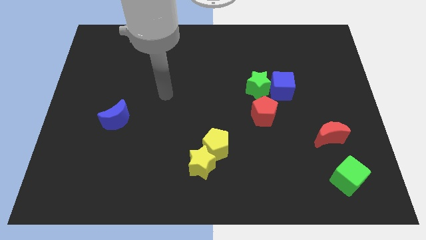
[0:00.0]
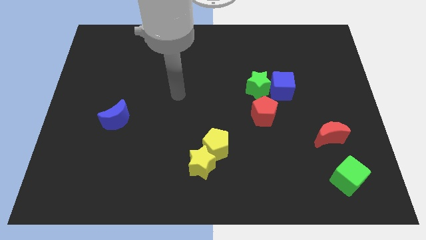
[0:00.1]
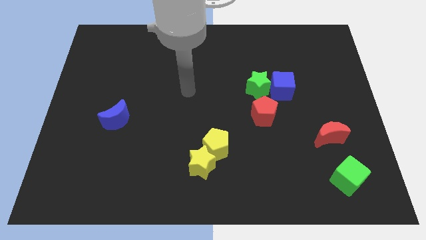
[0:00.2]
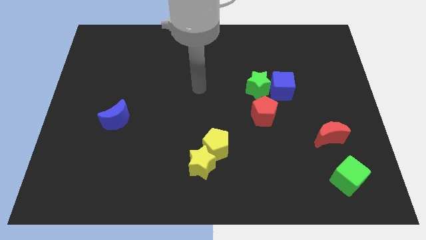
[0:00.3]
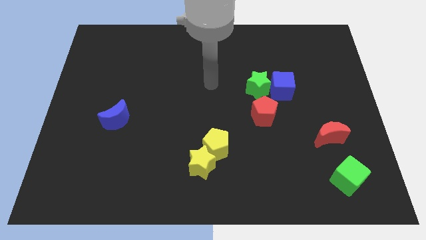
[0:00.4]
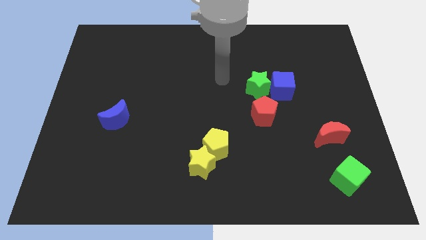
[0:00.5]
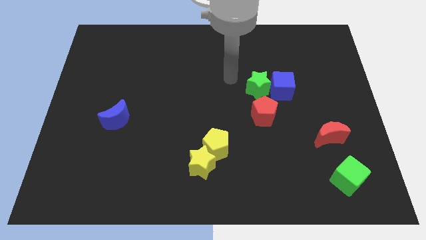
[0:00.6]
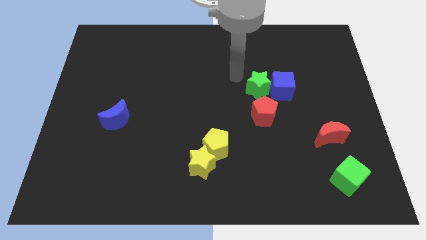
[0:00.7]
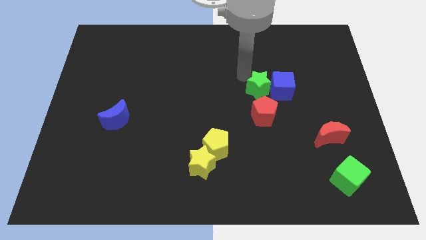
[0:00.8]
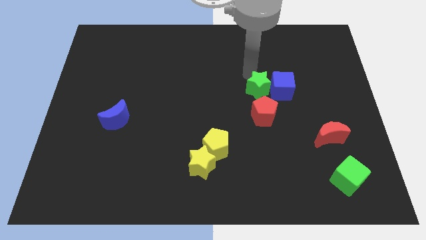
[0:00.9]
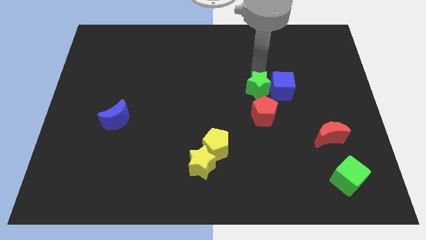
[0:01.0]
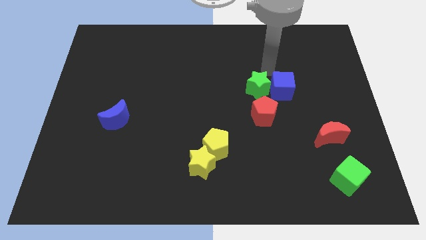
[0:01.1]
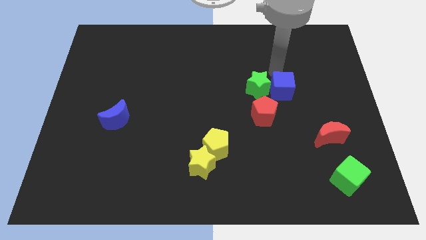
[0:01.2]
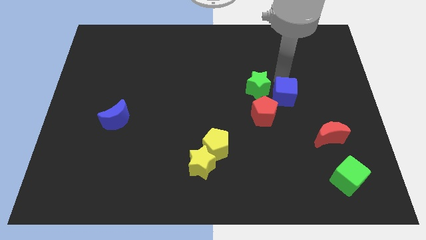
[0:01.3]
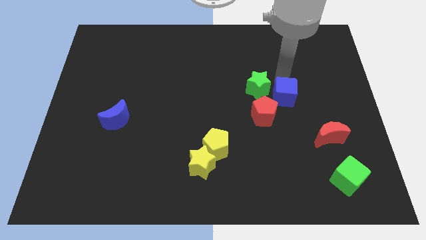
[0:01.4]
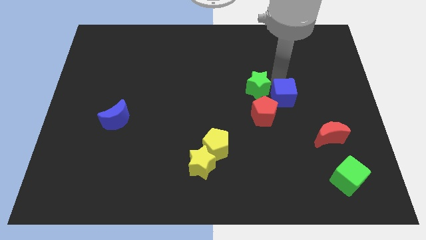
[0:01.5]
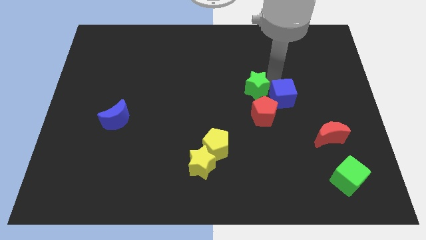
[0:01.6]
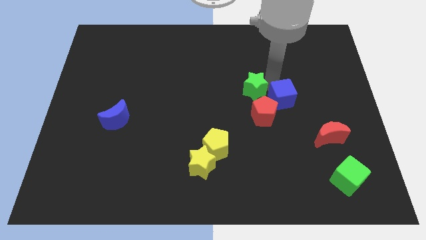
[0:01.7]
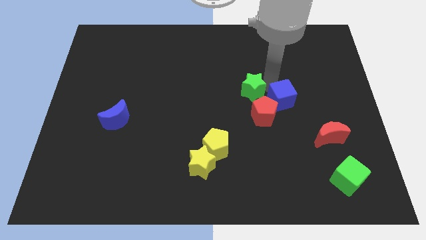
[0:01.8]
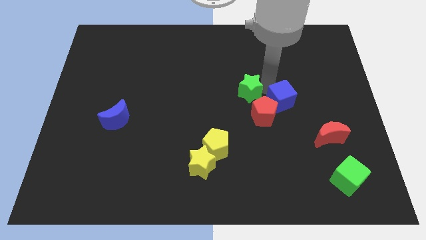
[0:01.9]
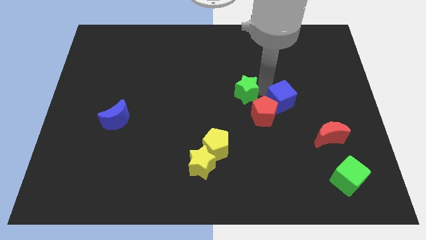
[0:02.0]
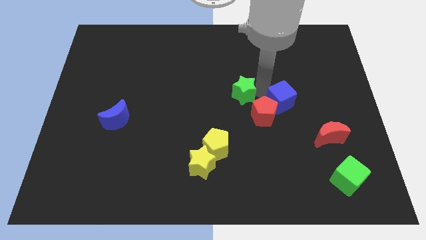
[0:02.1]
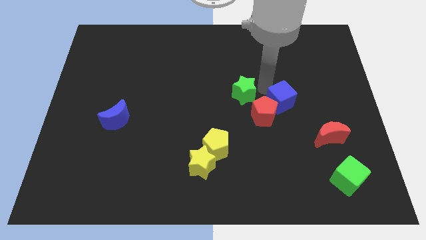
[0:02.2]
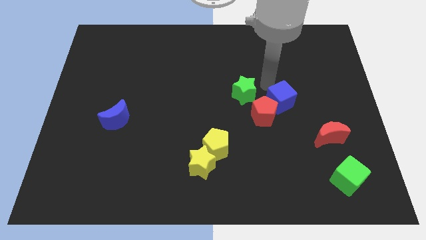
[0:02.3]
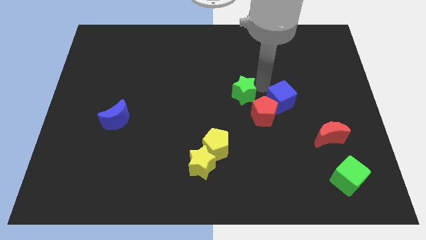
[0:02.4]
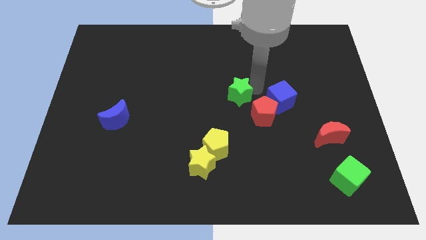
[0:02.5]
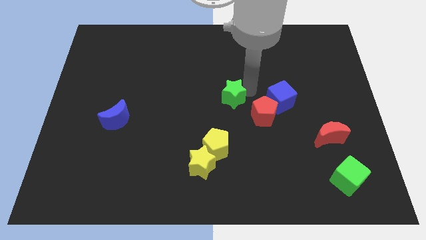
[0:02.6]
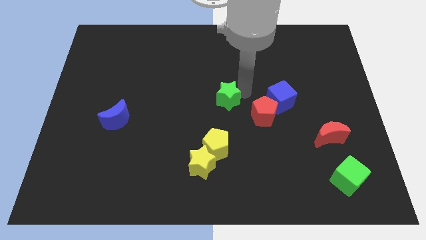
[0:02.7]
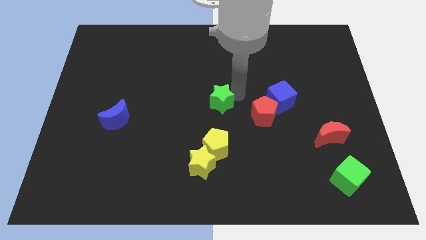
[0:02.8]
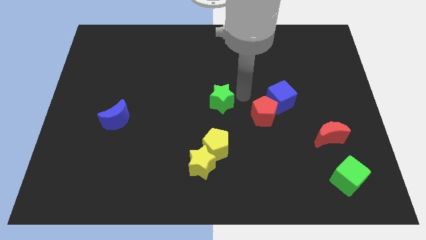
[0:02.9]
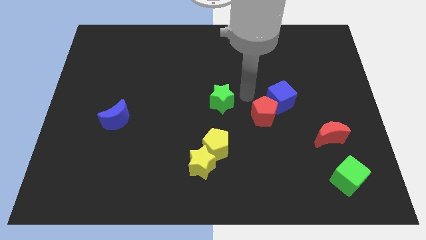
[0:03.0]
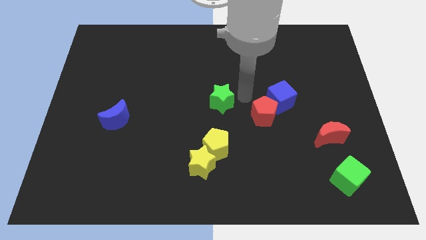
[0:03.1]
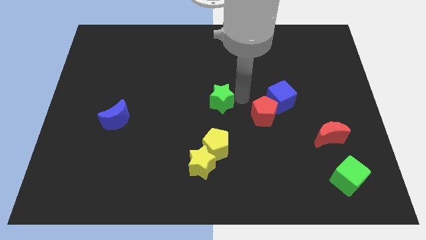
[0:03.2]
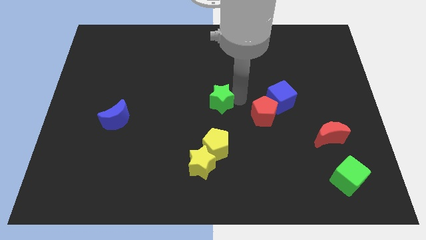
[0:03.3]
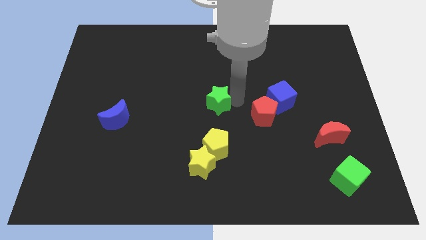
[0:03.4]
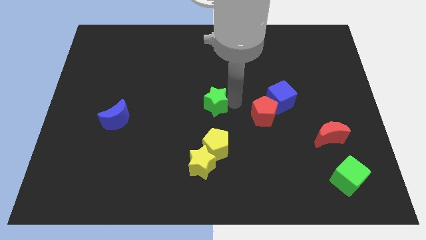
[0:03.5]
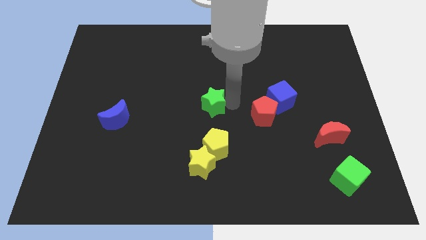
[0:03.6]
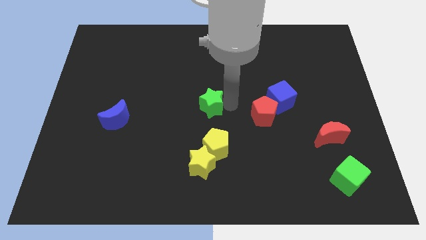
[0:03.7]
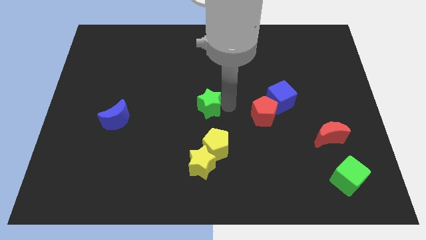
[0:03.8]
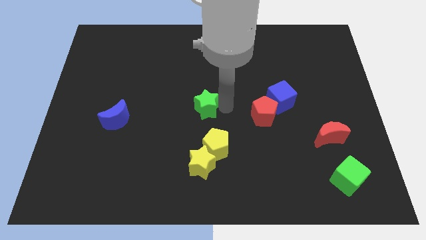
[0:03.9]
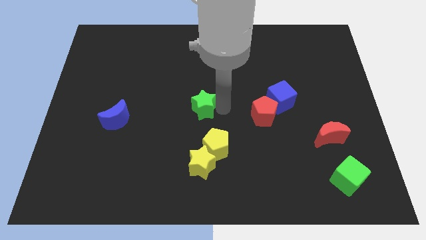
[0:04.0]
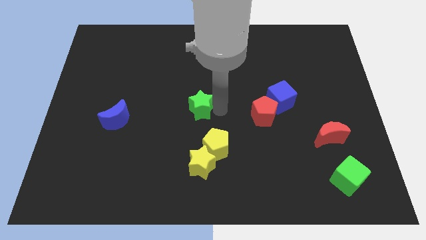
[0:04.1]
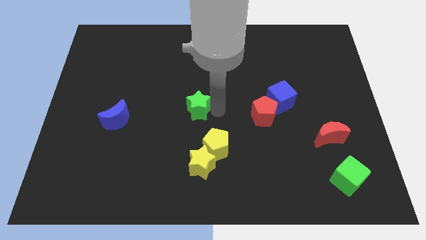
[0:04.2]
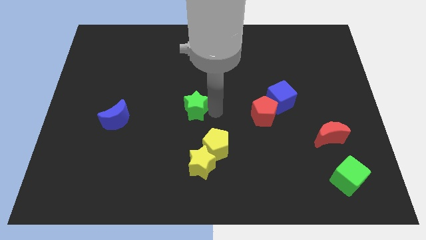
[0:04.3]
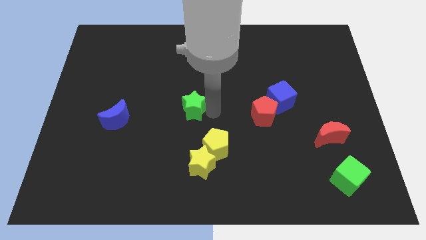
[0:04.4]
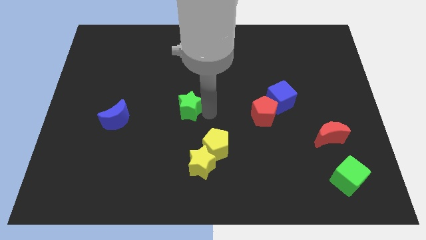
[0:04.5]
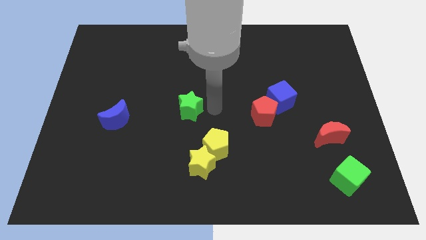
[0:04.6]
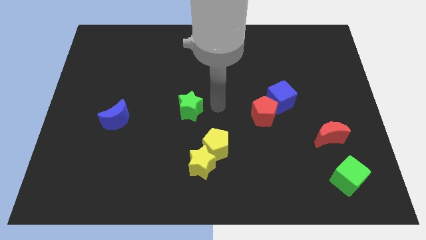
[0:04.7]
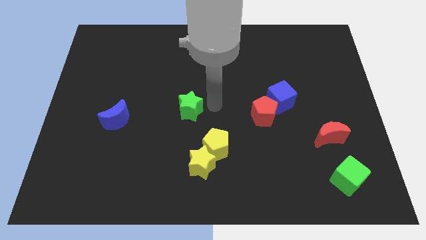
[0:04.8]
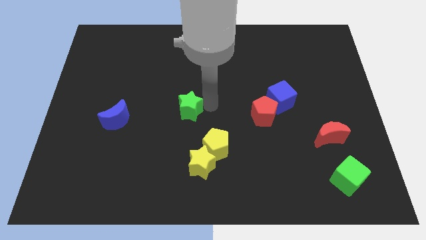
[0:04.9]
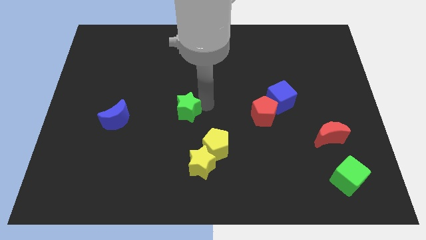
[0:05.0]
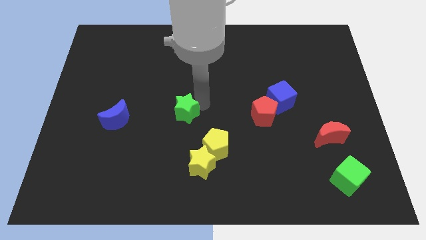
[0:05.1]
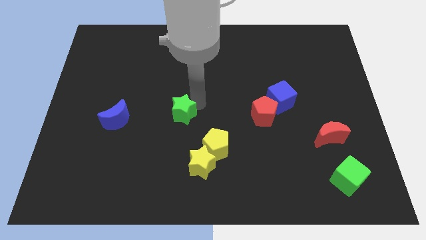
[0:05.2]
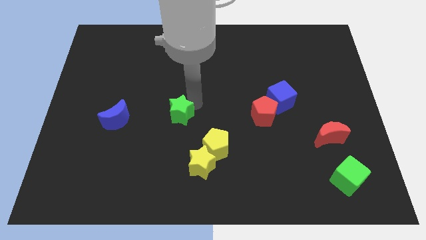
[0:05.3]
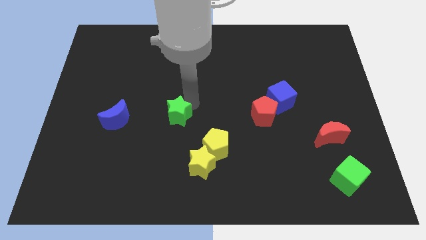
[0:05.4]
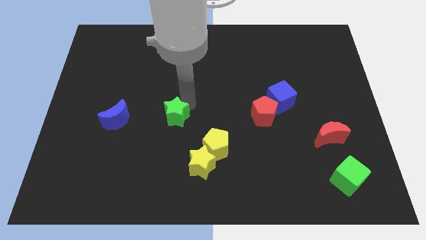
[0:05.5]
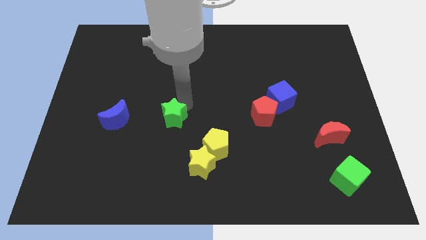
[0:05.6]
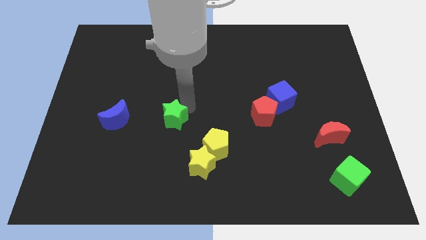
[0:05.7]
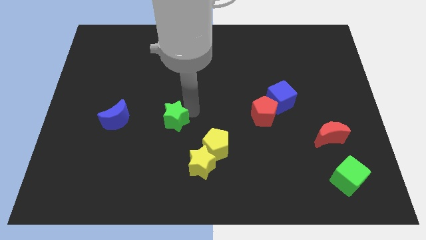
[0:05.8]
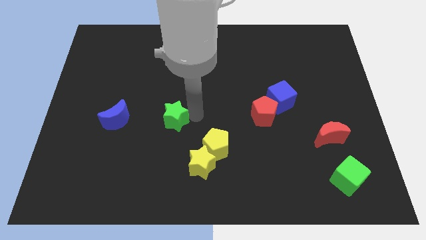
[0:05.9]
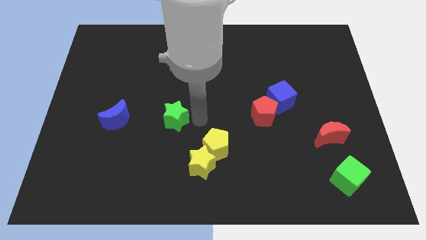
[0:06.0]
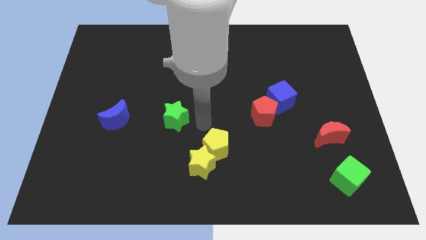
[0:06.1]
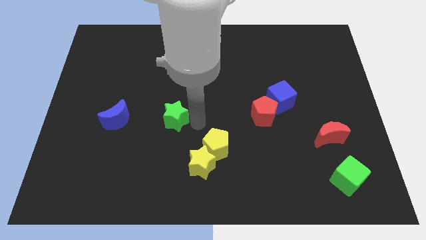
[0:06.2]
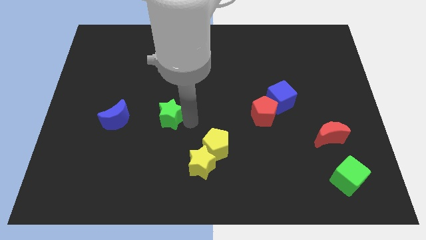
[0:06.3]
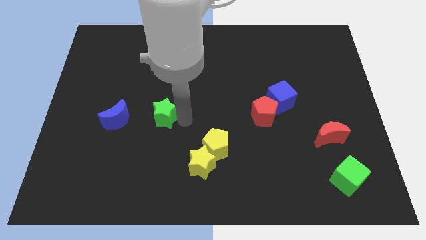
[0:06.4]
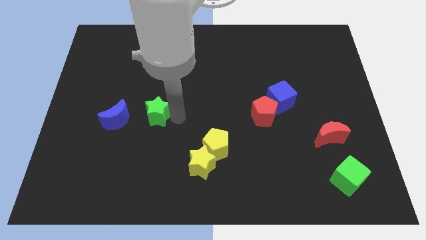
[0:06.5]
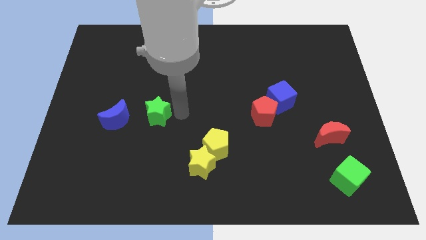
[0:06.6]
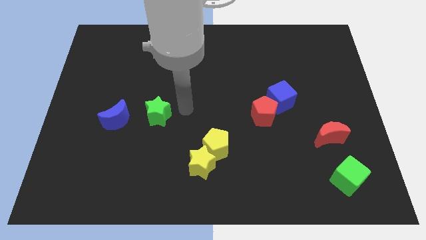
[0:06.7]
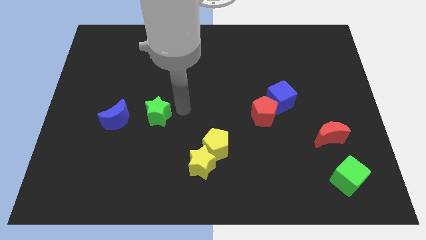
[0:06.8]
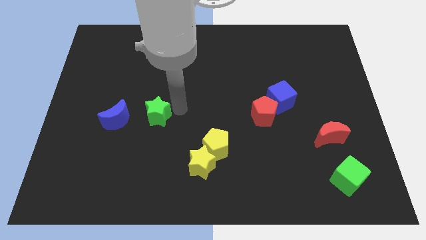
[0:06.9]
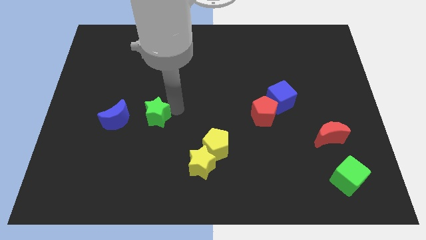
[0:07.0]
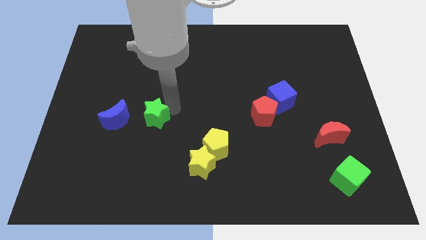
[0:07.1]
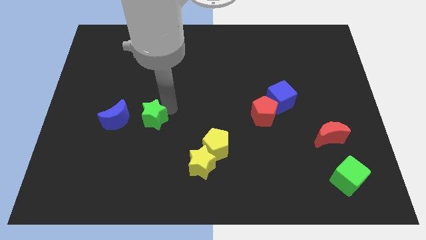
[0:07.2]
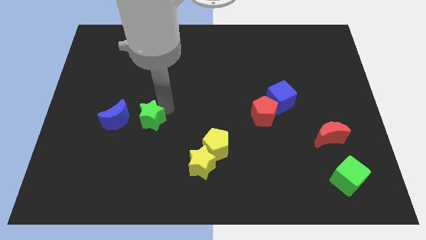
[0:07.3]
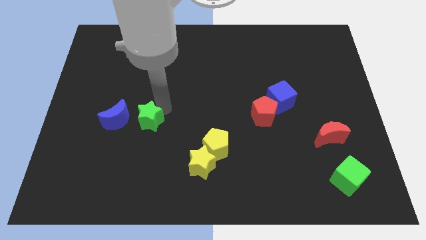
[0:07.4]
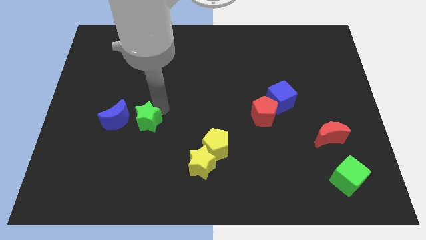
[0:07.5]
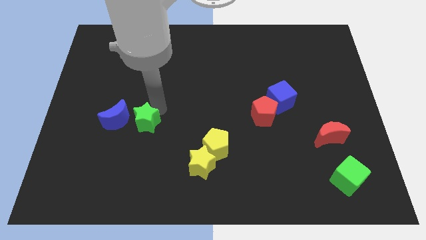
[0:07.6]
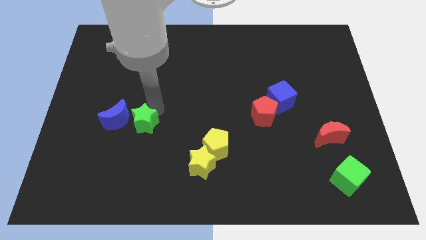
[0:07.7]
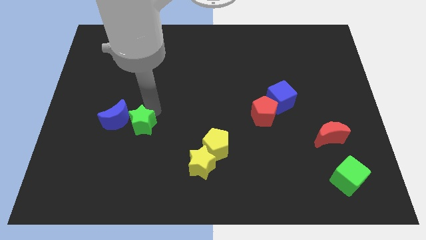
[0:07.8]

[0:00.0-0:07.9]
move the green star close to the blue moon
